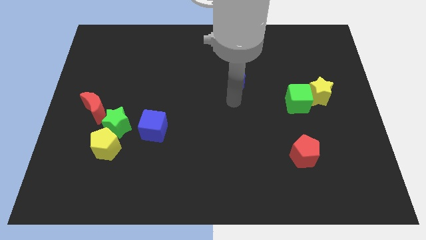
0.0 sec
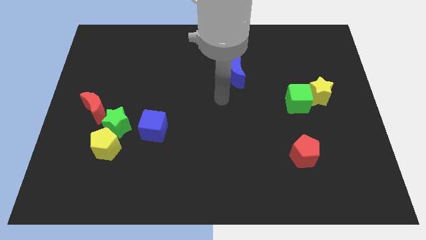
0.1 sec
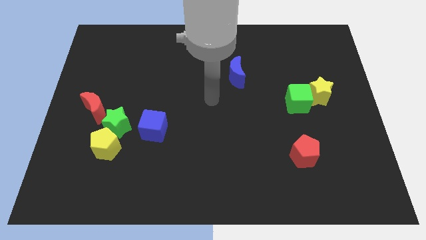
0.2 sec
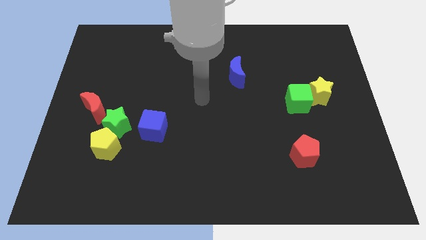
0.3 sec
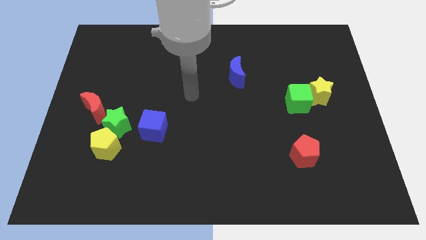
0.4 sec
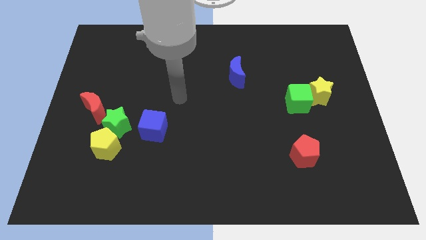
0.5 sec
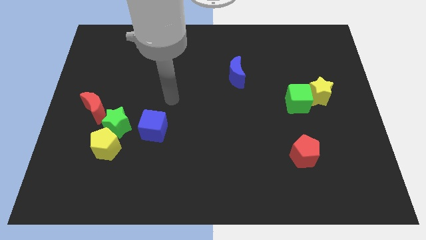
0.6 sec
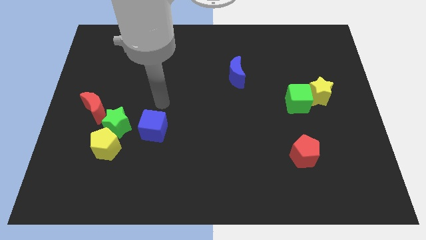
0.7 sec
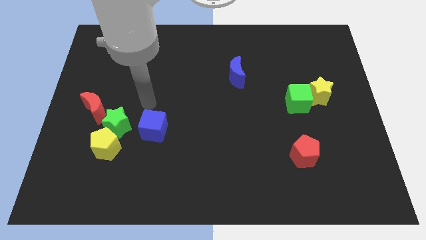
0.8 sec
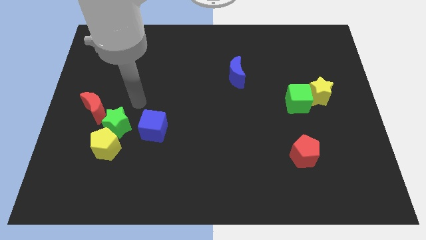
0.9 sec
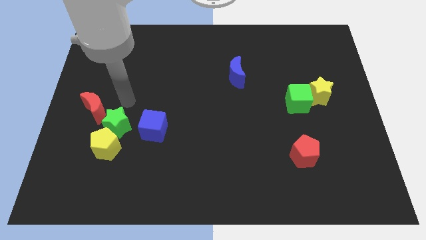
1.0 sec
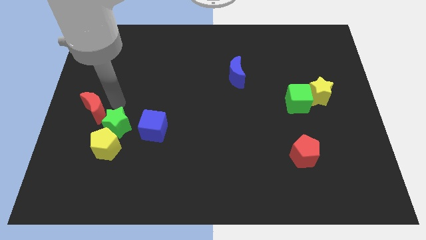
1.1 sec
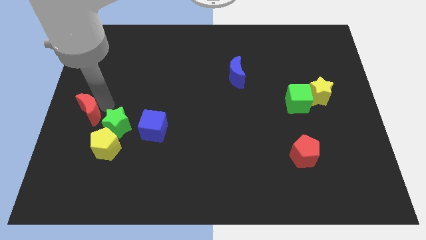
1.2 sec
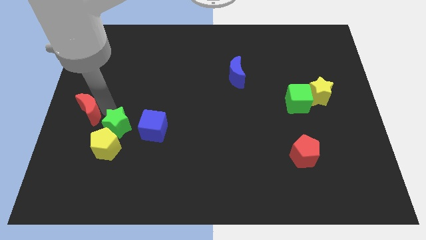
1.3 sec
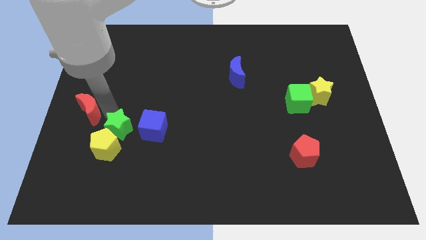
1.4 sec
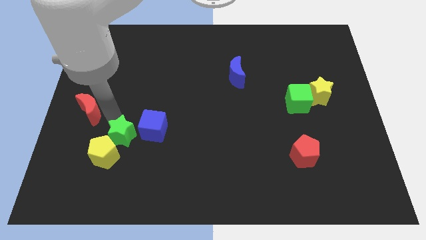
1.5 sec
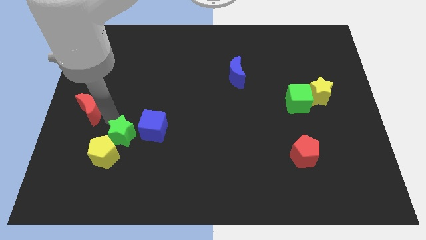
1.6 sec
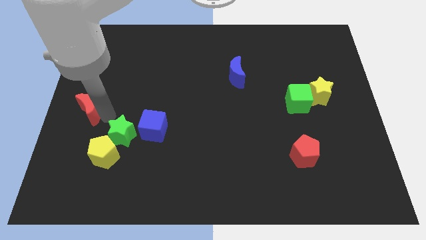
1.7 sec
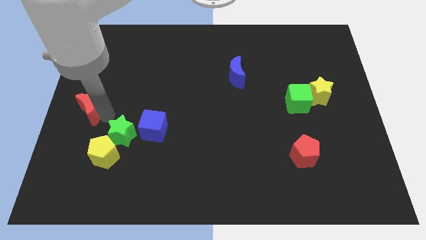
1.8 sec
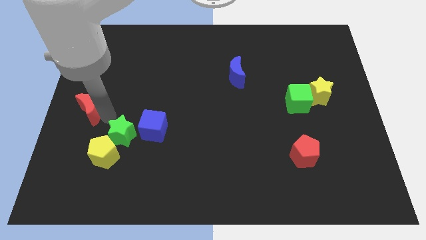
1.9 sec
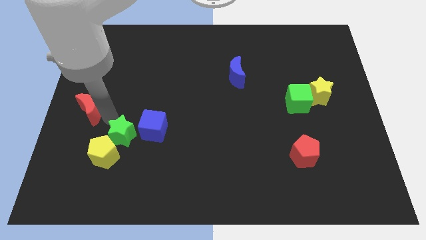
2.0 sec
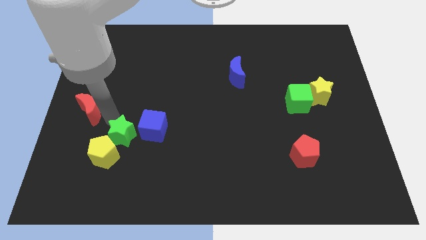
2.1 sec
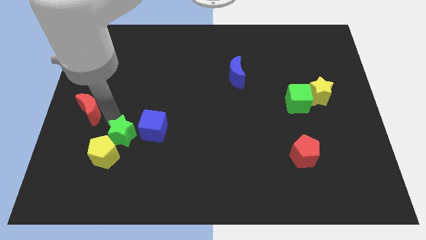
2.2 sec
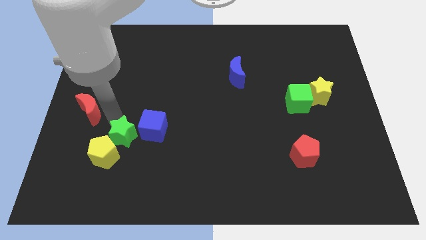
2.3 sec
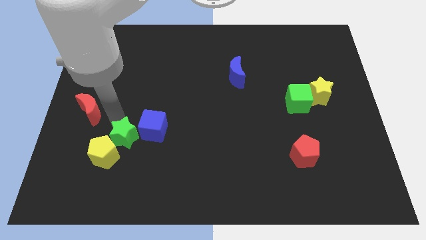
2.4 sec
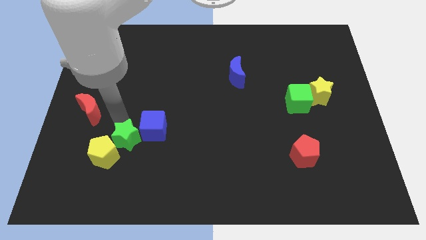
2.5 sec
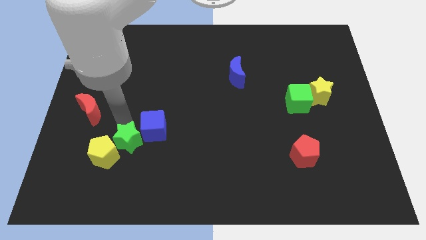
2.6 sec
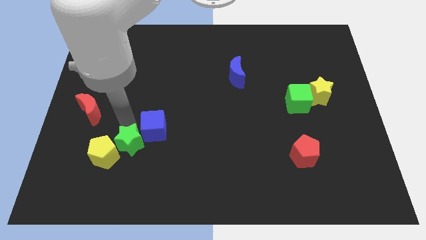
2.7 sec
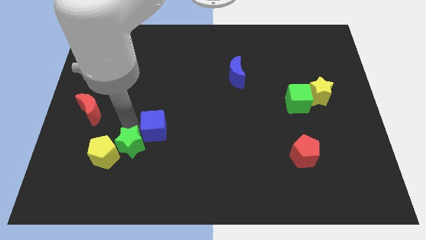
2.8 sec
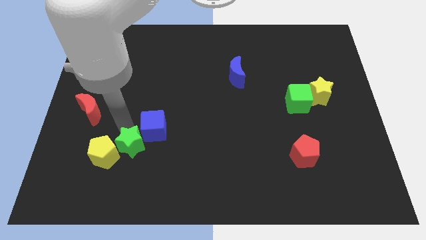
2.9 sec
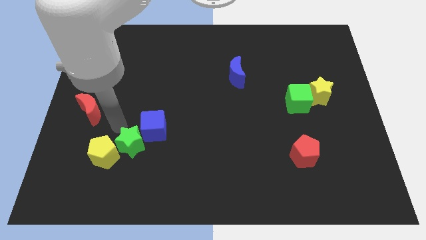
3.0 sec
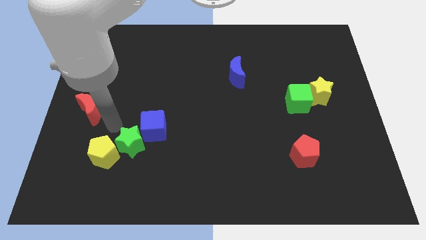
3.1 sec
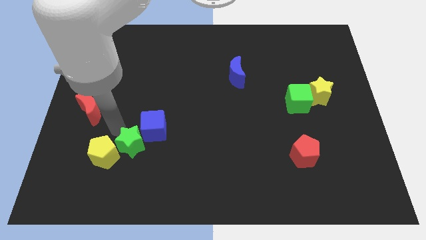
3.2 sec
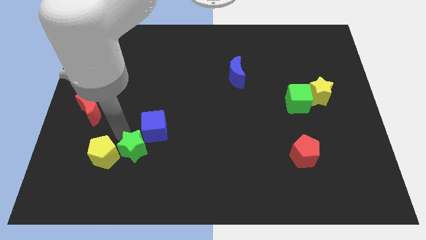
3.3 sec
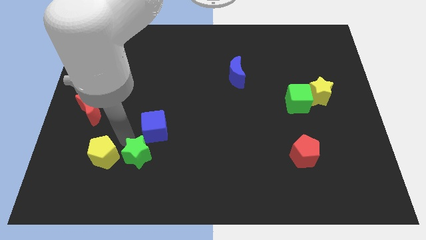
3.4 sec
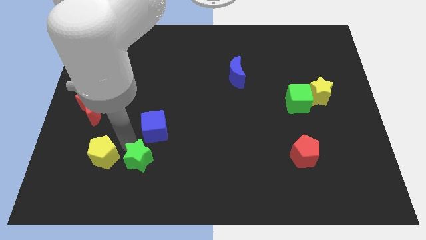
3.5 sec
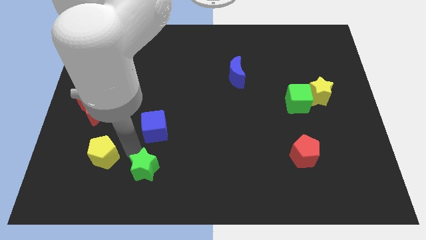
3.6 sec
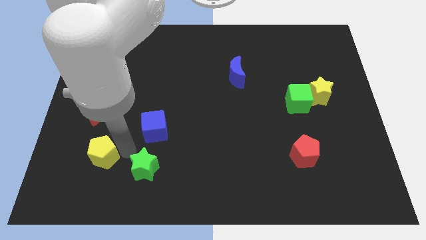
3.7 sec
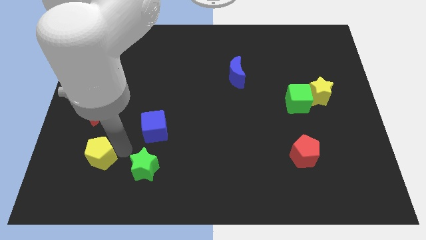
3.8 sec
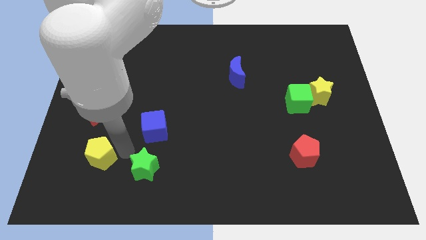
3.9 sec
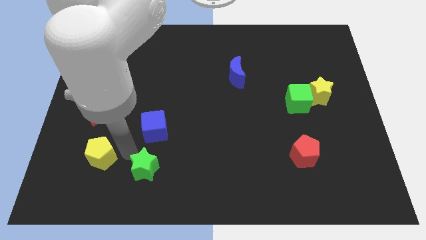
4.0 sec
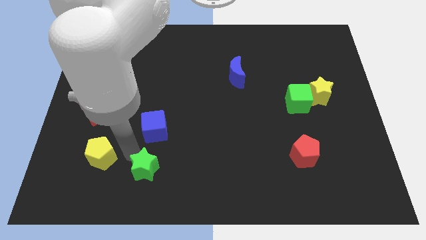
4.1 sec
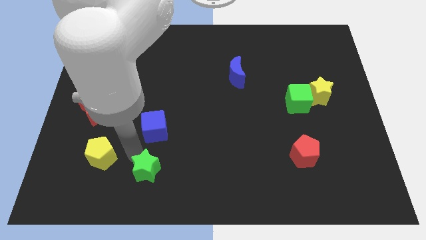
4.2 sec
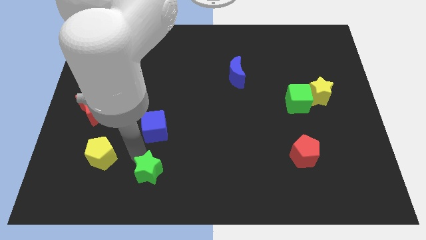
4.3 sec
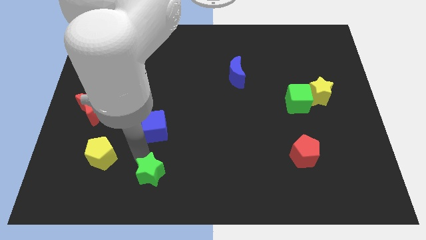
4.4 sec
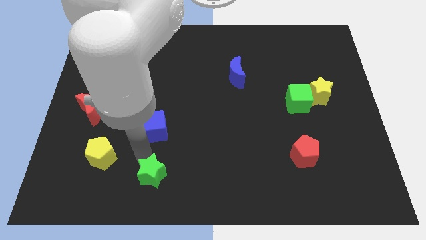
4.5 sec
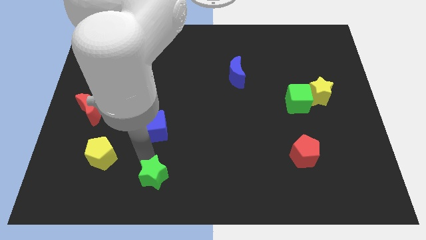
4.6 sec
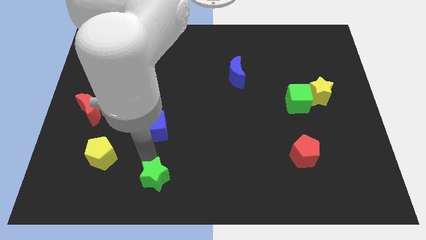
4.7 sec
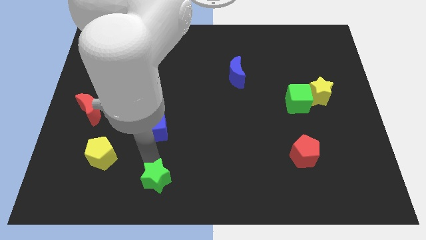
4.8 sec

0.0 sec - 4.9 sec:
push the green star to the bottom side

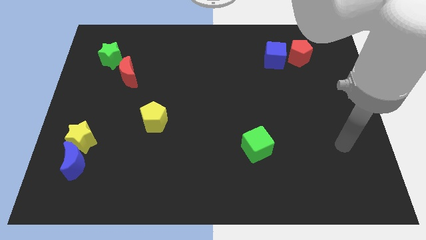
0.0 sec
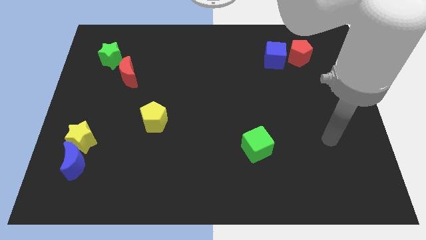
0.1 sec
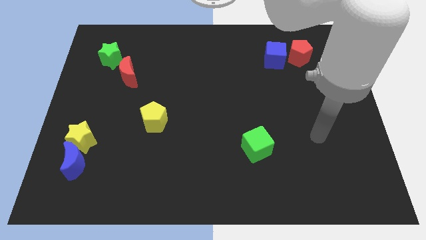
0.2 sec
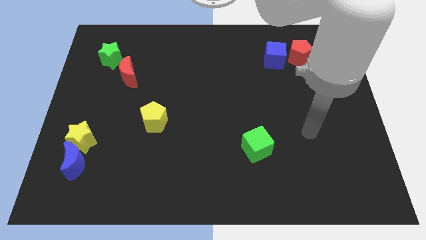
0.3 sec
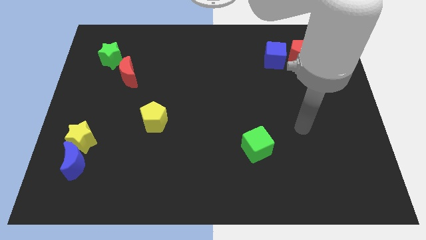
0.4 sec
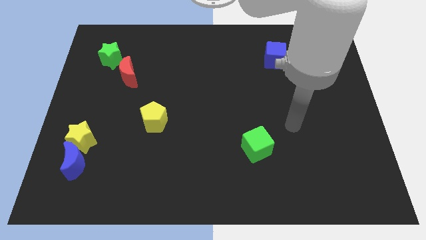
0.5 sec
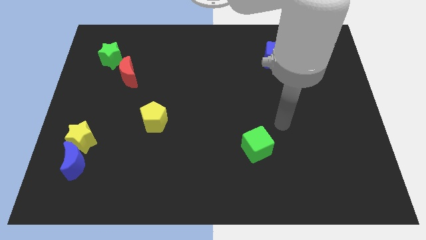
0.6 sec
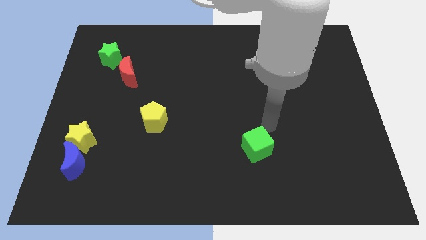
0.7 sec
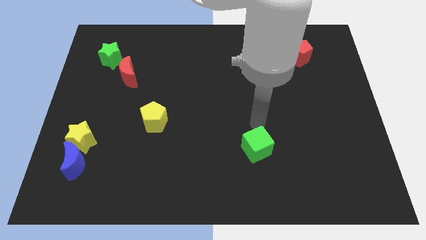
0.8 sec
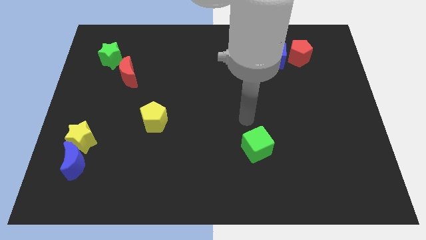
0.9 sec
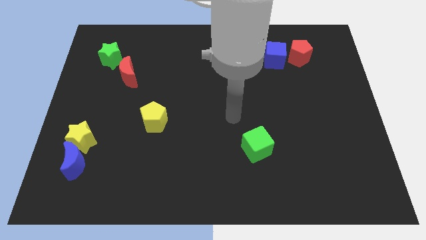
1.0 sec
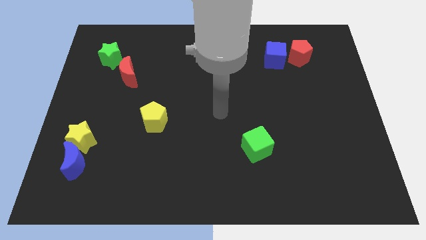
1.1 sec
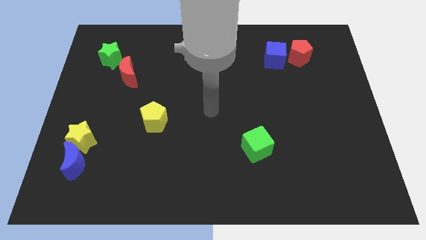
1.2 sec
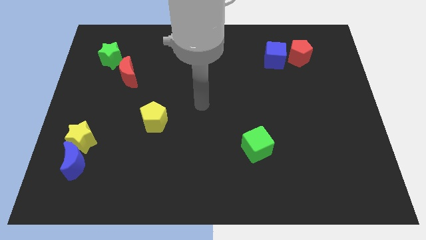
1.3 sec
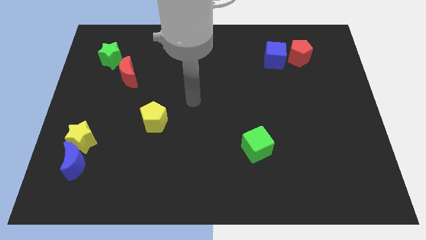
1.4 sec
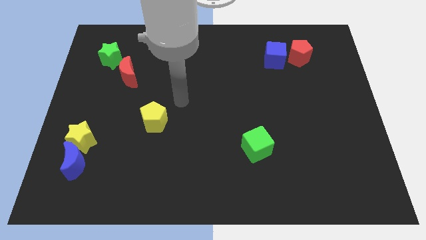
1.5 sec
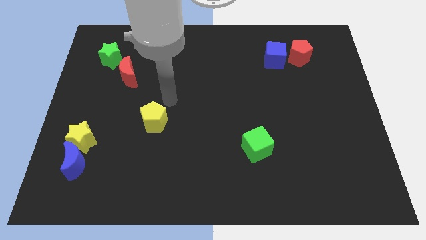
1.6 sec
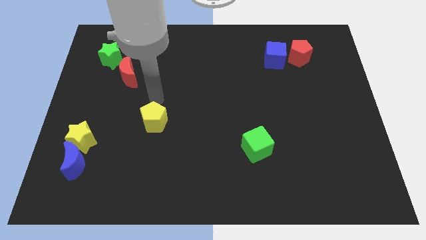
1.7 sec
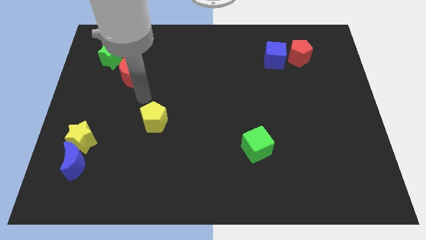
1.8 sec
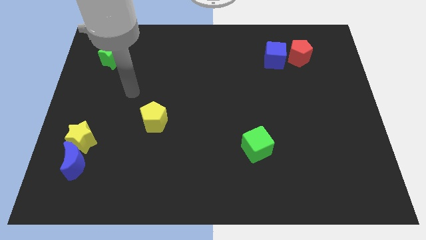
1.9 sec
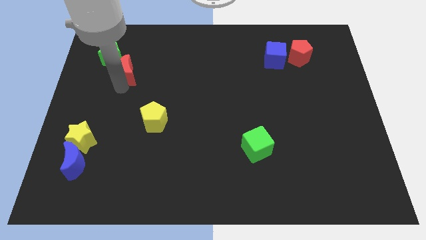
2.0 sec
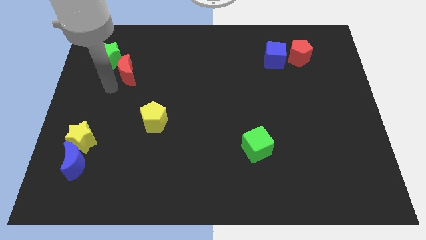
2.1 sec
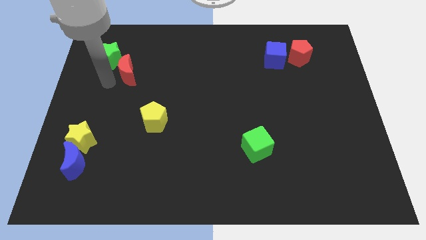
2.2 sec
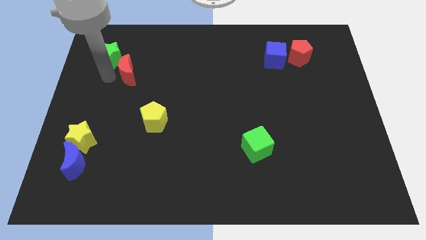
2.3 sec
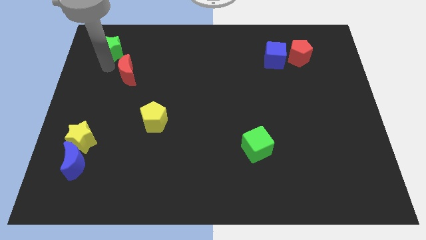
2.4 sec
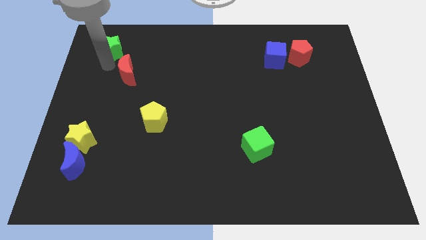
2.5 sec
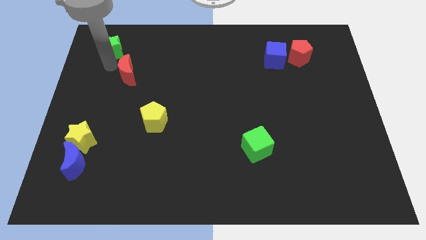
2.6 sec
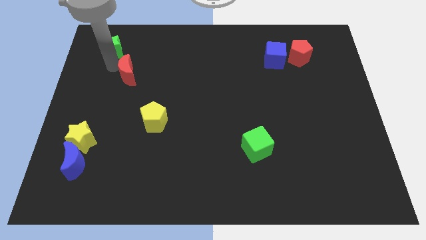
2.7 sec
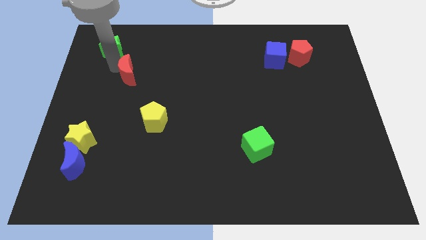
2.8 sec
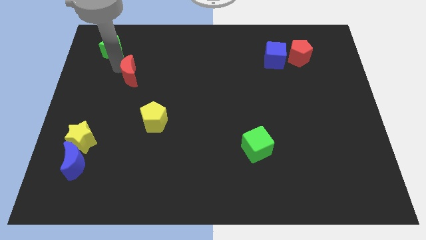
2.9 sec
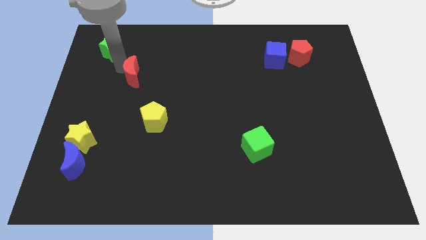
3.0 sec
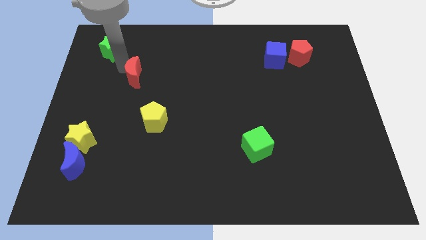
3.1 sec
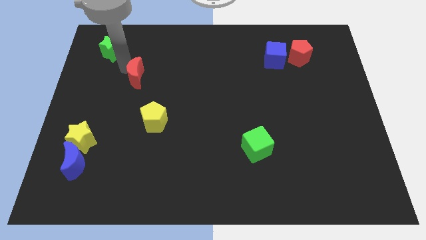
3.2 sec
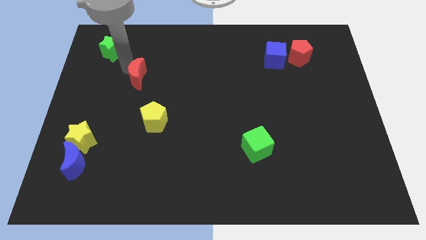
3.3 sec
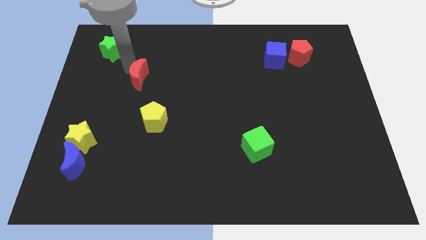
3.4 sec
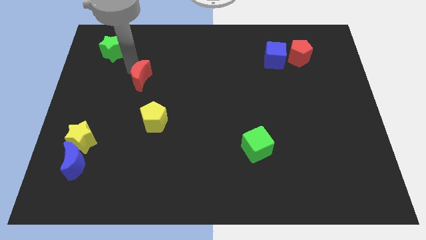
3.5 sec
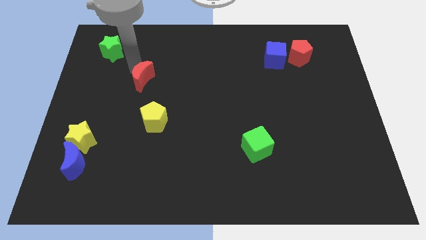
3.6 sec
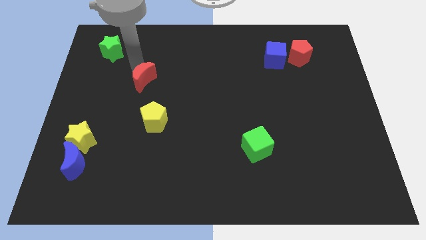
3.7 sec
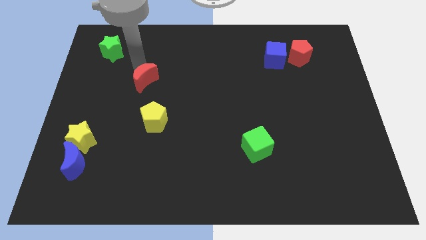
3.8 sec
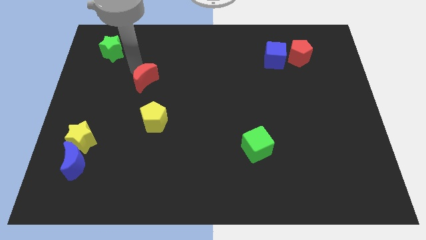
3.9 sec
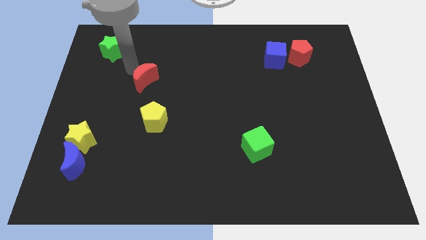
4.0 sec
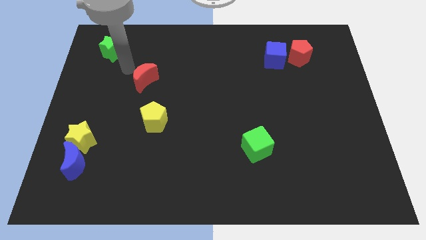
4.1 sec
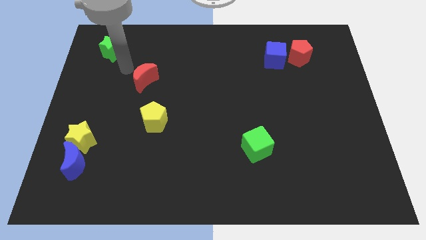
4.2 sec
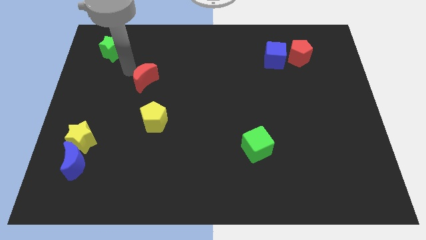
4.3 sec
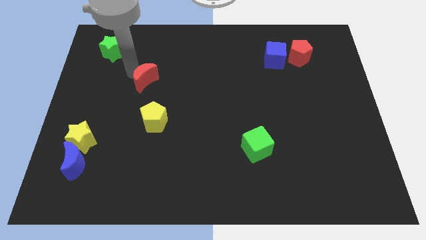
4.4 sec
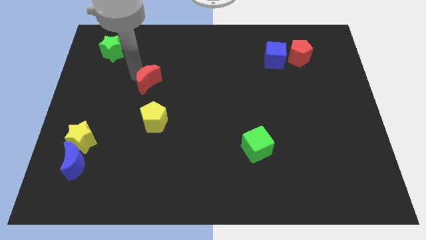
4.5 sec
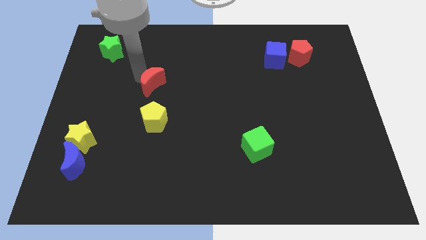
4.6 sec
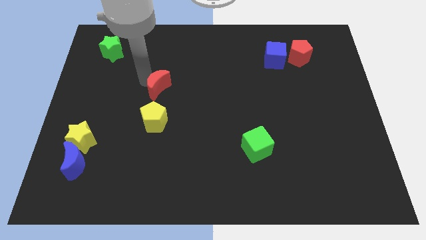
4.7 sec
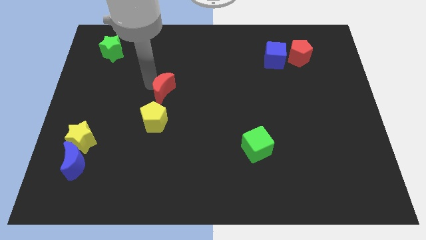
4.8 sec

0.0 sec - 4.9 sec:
move the red moon to the middle of the board
